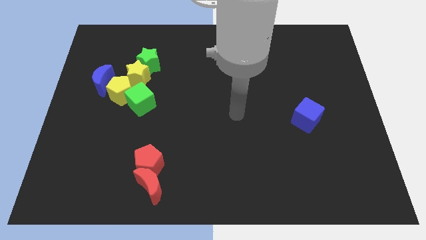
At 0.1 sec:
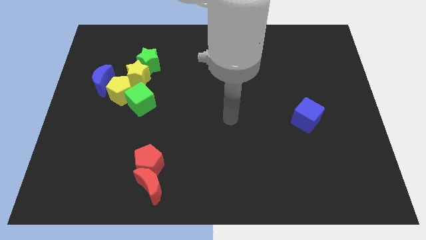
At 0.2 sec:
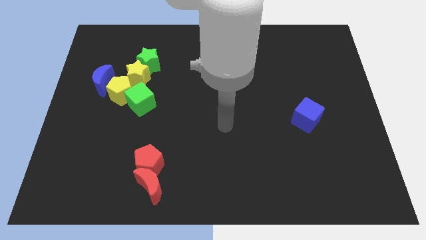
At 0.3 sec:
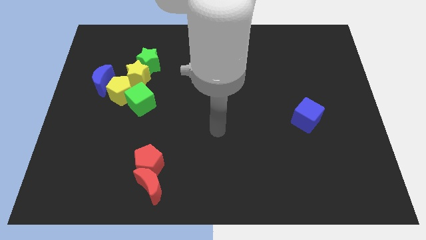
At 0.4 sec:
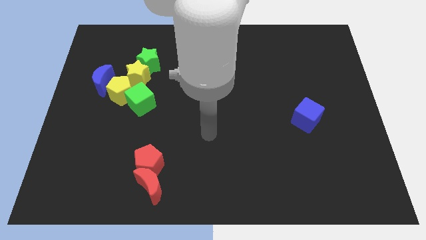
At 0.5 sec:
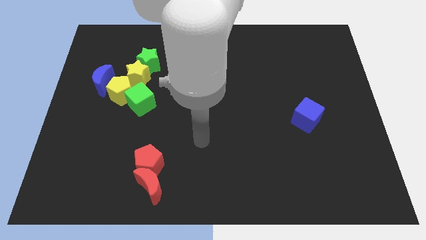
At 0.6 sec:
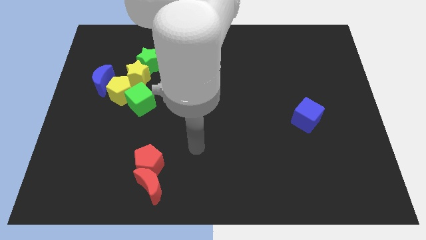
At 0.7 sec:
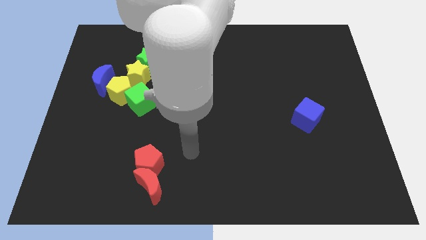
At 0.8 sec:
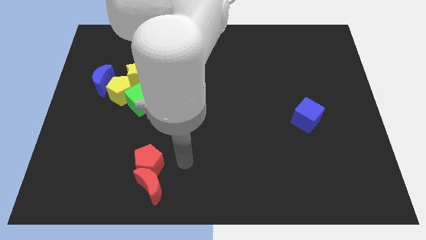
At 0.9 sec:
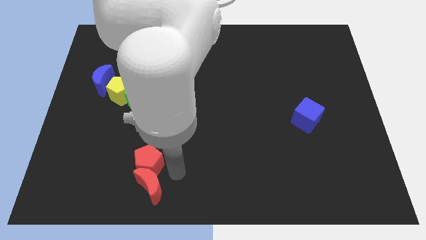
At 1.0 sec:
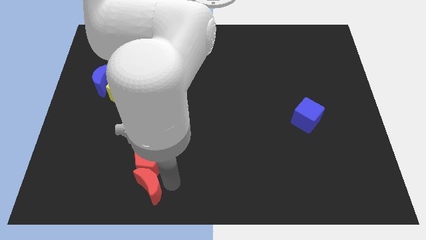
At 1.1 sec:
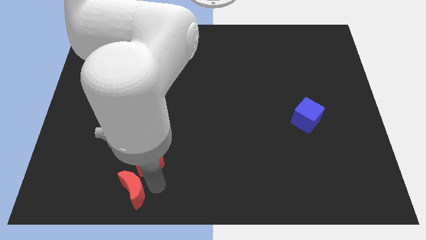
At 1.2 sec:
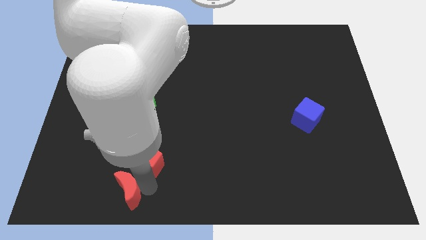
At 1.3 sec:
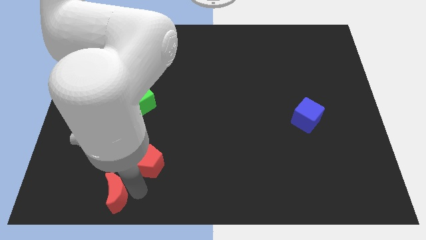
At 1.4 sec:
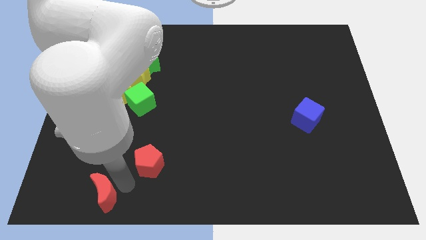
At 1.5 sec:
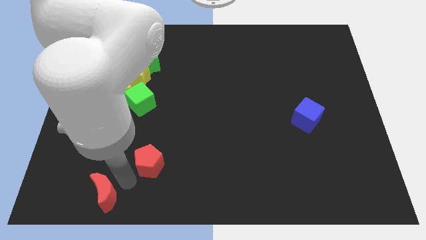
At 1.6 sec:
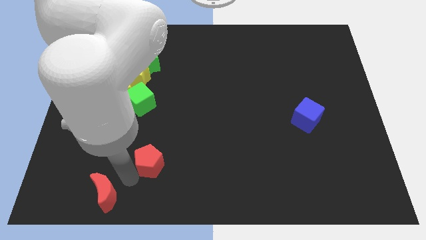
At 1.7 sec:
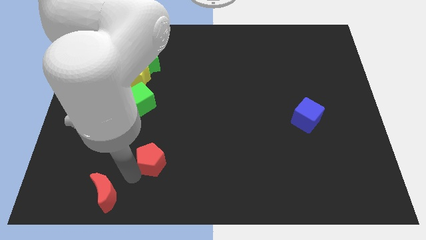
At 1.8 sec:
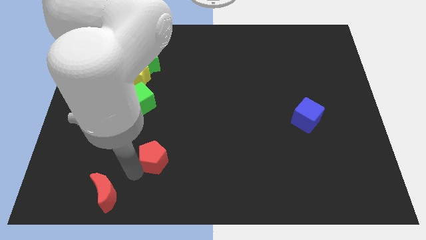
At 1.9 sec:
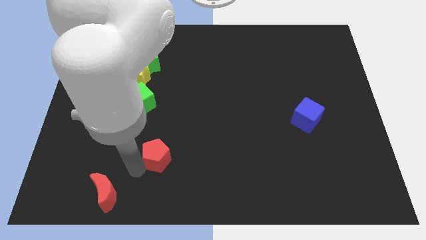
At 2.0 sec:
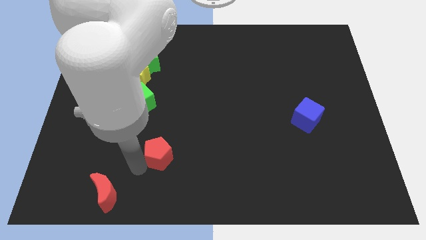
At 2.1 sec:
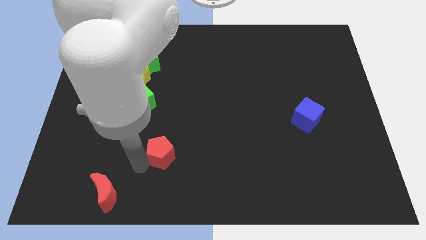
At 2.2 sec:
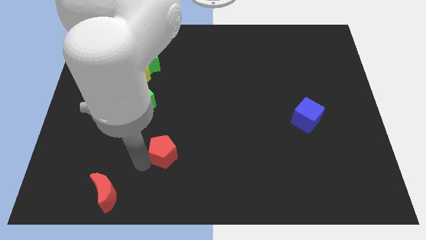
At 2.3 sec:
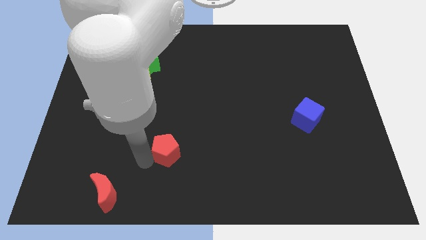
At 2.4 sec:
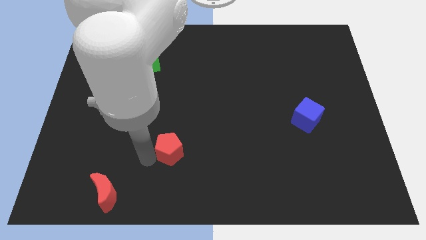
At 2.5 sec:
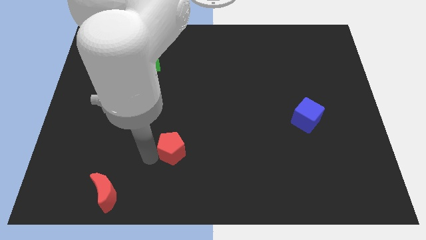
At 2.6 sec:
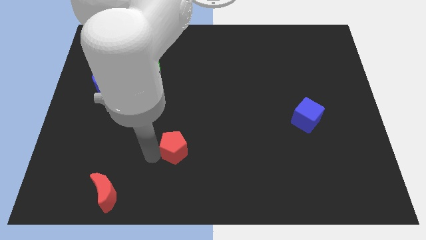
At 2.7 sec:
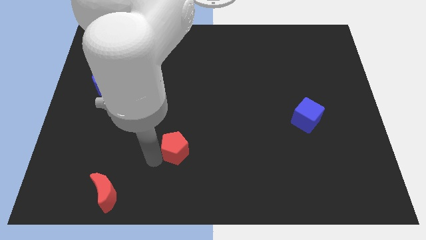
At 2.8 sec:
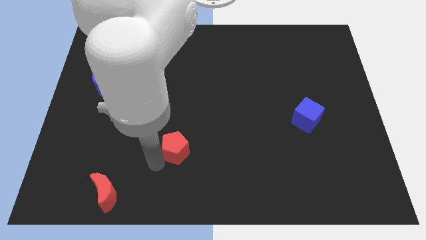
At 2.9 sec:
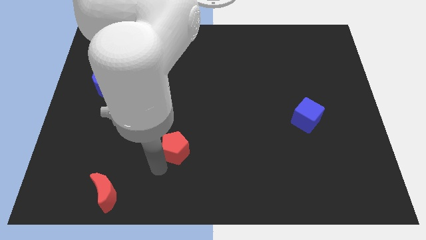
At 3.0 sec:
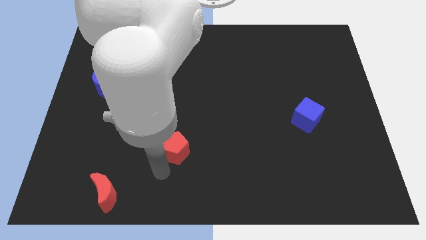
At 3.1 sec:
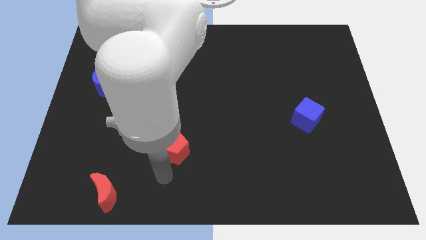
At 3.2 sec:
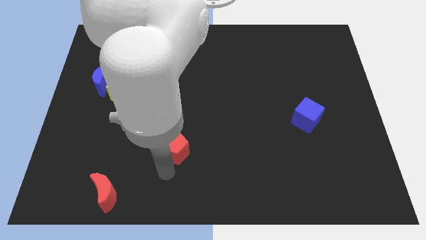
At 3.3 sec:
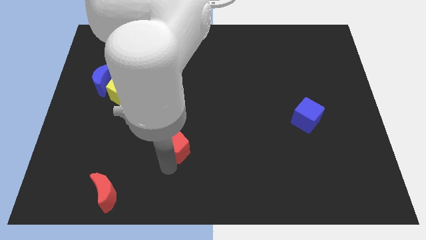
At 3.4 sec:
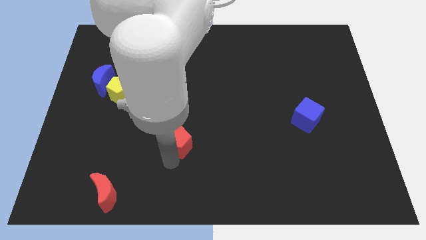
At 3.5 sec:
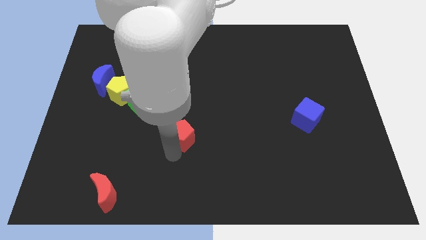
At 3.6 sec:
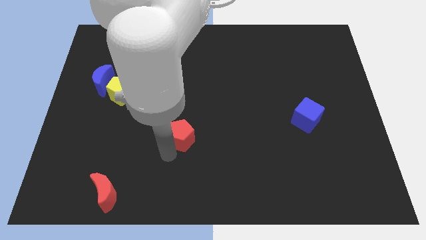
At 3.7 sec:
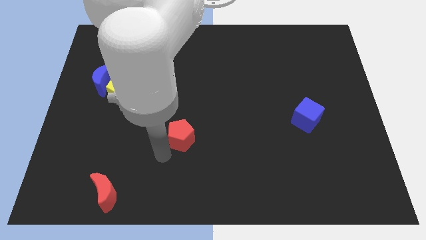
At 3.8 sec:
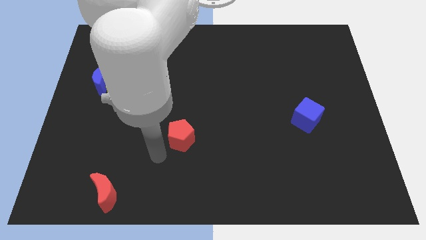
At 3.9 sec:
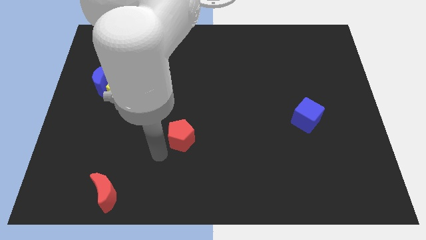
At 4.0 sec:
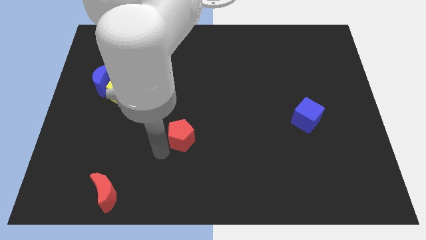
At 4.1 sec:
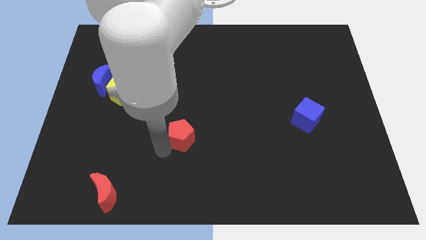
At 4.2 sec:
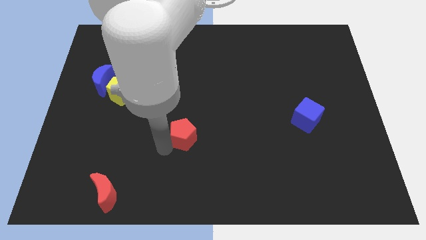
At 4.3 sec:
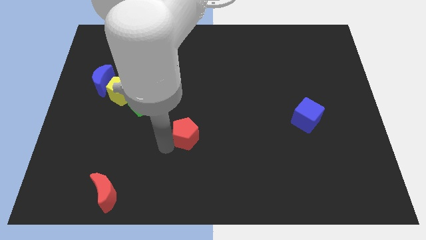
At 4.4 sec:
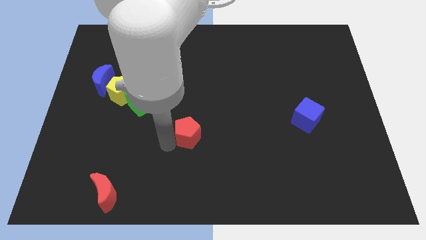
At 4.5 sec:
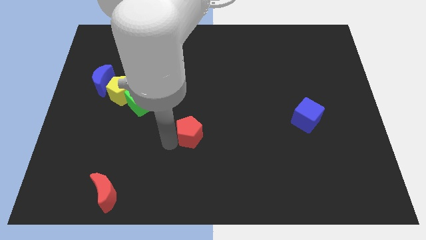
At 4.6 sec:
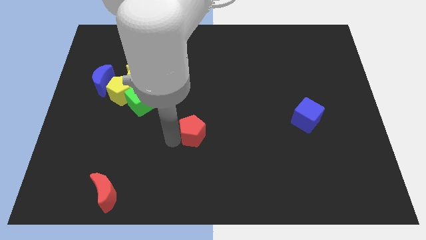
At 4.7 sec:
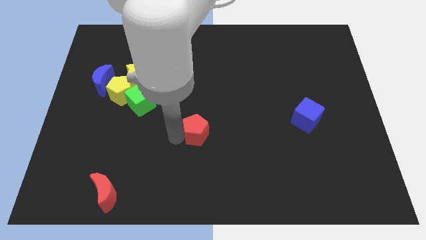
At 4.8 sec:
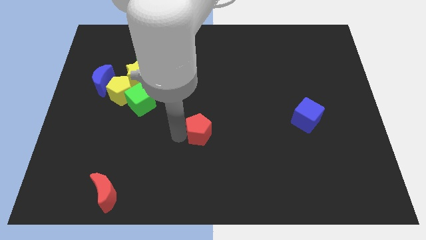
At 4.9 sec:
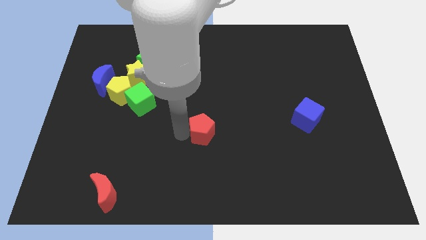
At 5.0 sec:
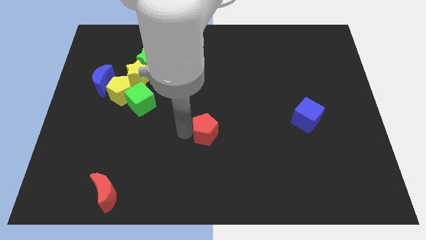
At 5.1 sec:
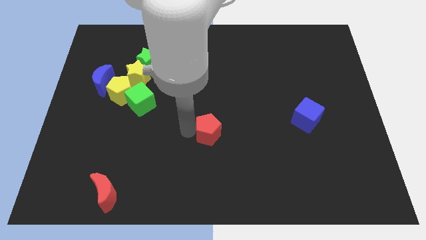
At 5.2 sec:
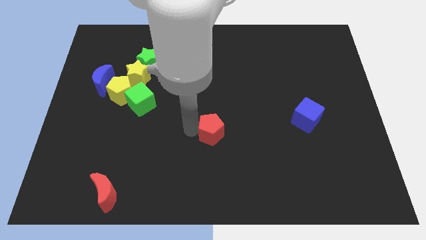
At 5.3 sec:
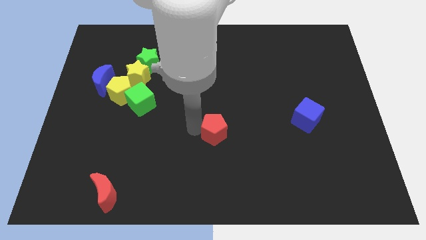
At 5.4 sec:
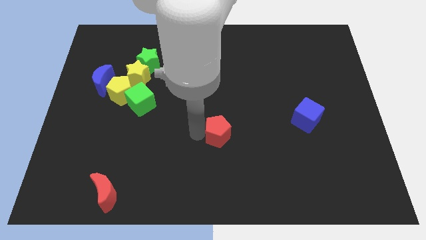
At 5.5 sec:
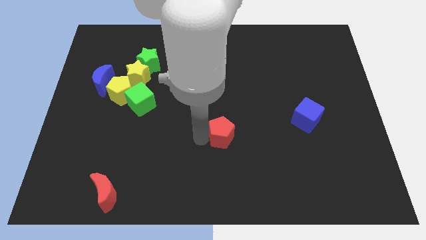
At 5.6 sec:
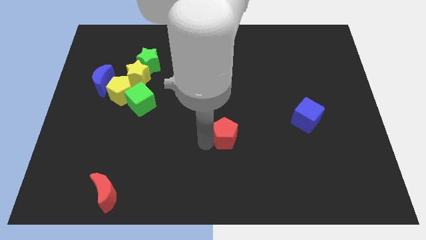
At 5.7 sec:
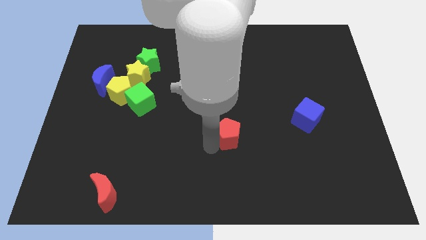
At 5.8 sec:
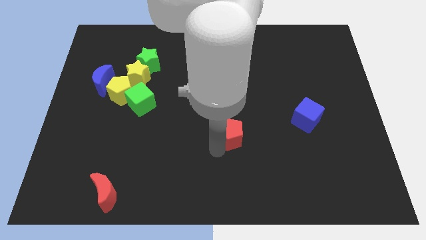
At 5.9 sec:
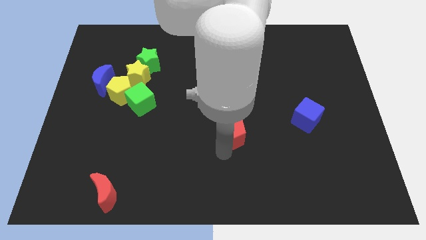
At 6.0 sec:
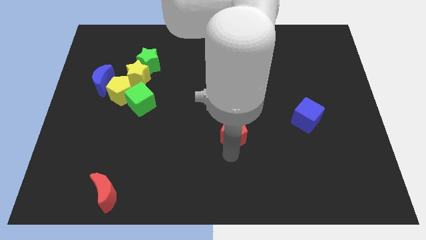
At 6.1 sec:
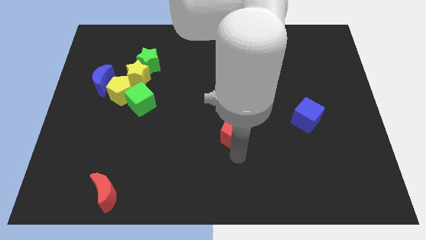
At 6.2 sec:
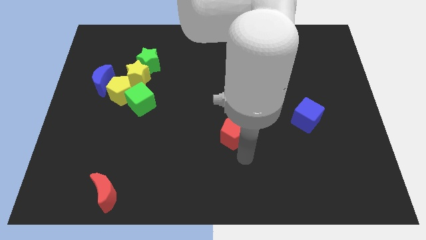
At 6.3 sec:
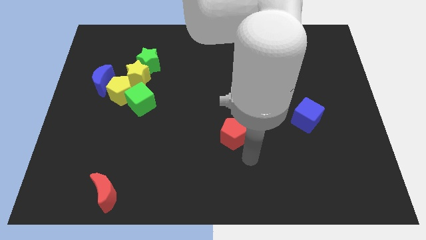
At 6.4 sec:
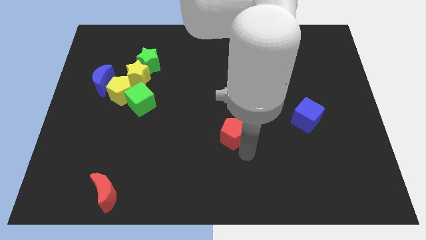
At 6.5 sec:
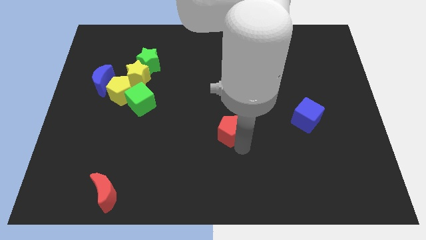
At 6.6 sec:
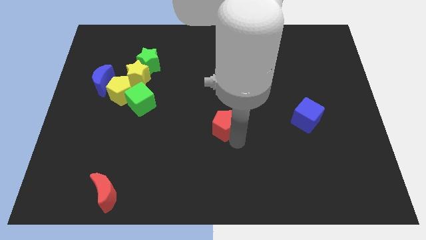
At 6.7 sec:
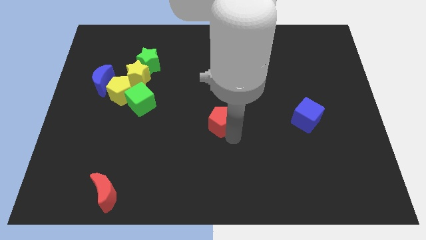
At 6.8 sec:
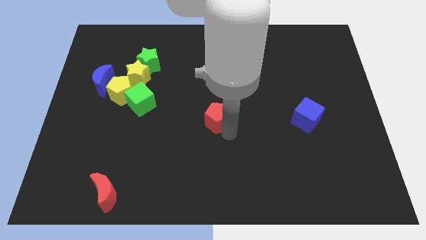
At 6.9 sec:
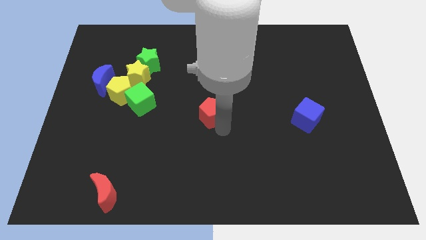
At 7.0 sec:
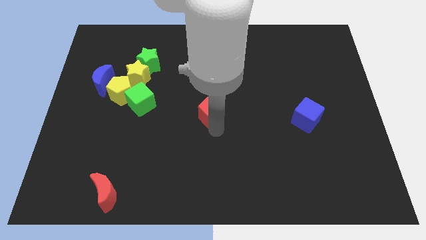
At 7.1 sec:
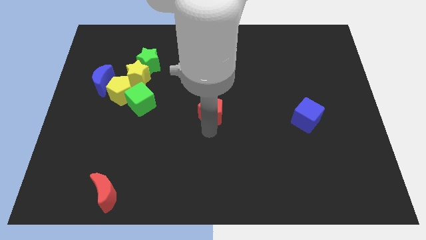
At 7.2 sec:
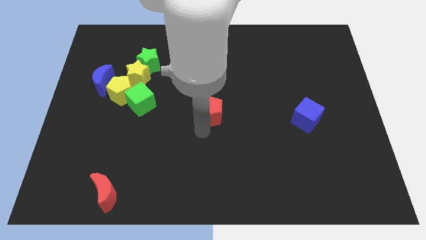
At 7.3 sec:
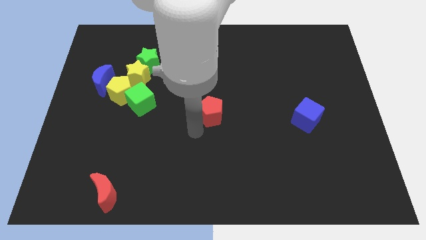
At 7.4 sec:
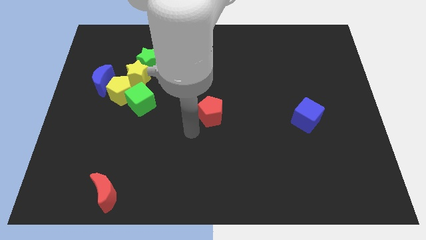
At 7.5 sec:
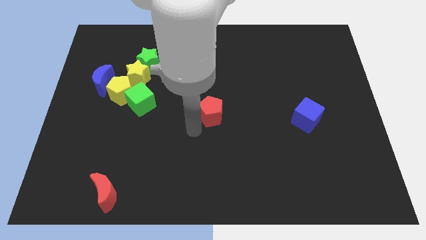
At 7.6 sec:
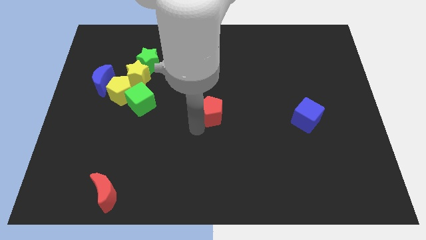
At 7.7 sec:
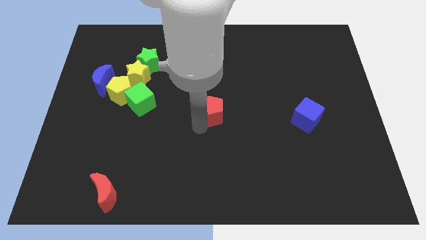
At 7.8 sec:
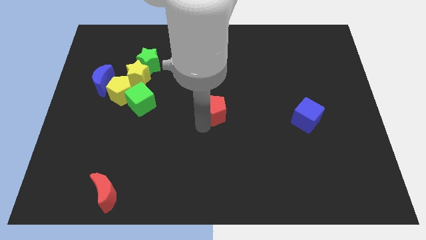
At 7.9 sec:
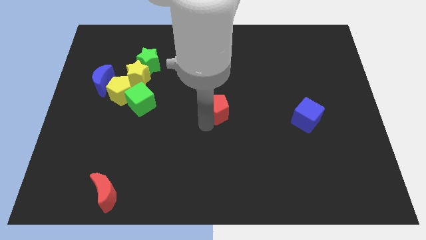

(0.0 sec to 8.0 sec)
slide the red pentagon up and then to the right
